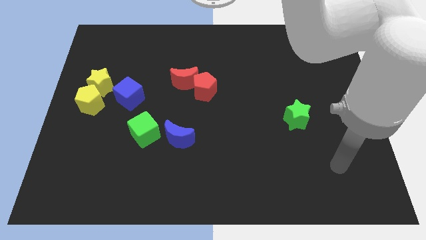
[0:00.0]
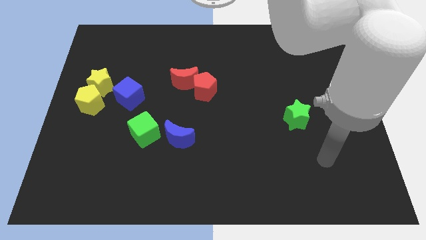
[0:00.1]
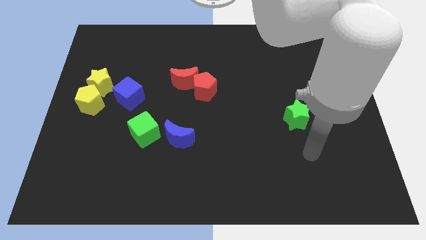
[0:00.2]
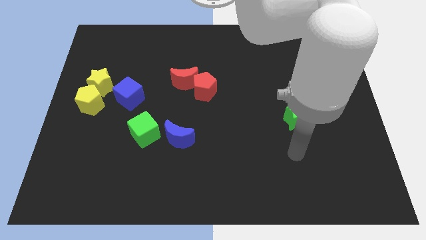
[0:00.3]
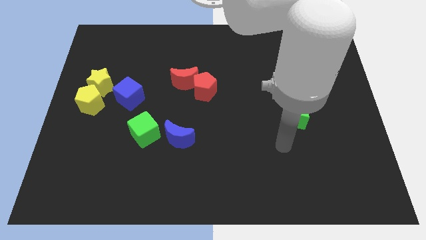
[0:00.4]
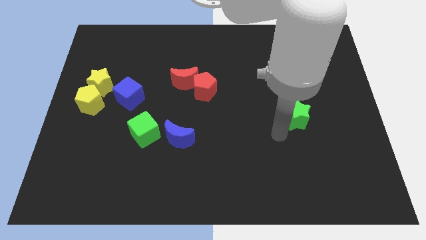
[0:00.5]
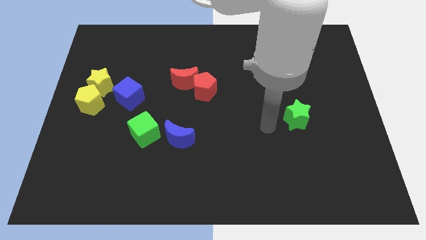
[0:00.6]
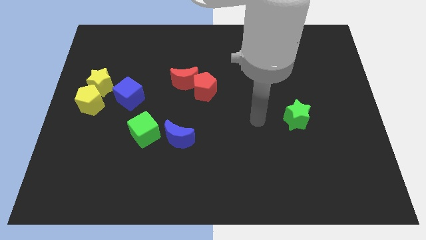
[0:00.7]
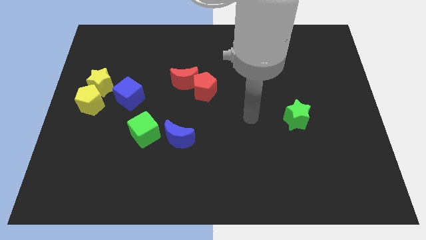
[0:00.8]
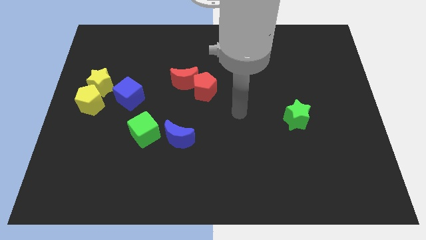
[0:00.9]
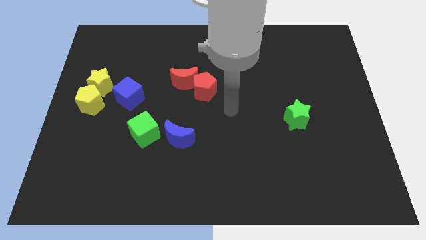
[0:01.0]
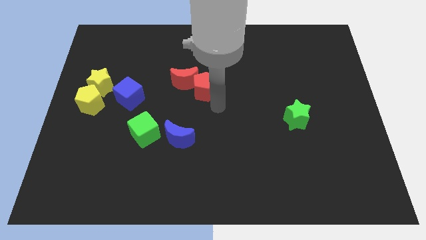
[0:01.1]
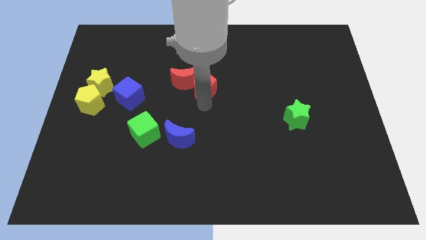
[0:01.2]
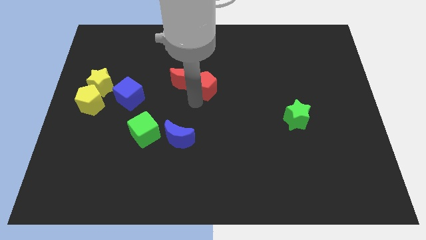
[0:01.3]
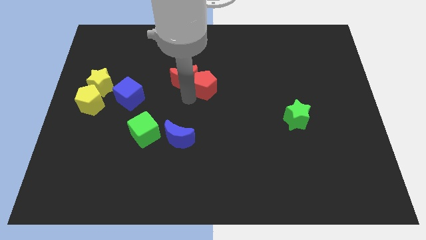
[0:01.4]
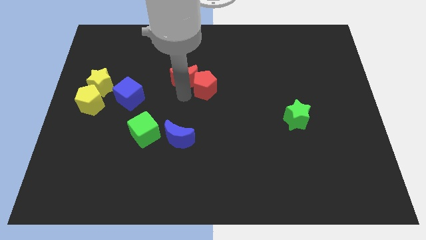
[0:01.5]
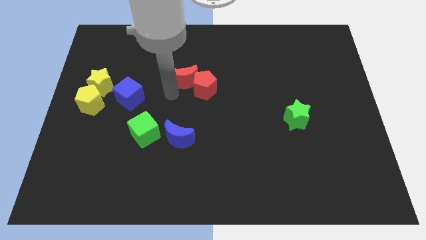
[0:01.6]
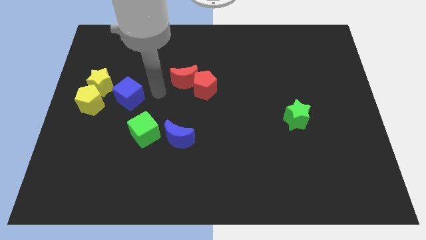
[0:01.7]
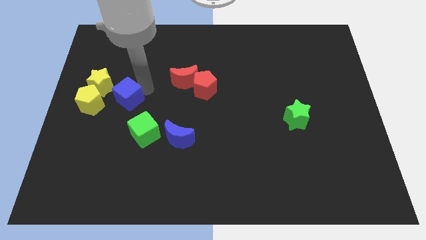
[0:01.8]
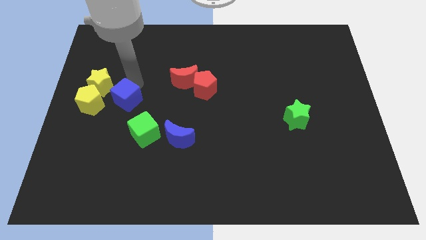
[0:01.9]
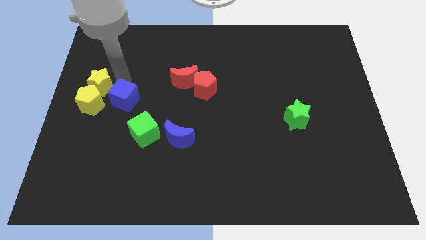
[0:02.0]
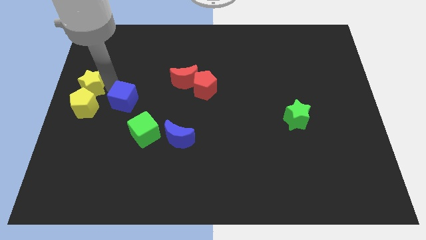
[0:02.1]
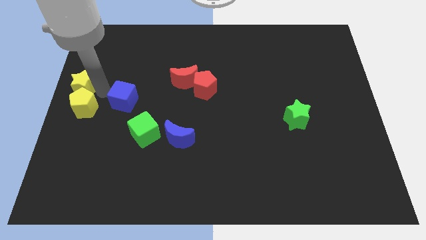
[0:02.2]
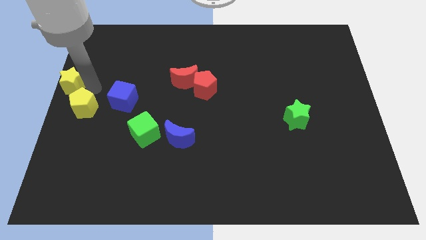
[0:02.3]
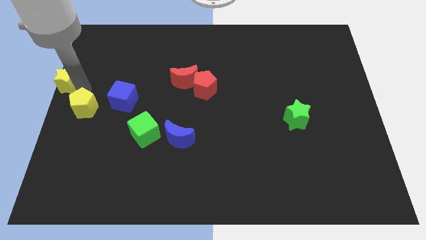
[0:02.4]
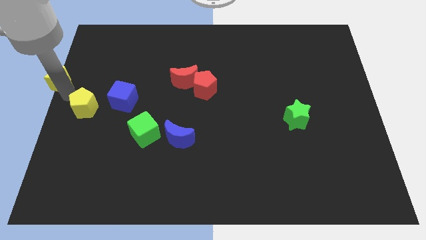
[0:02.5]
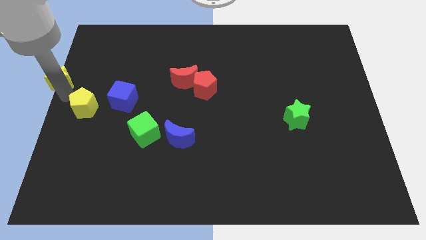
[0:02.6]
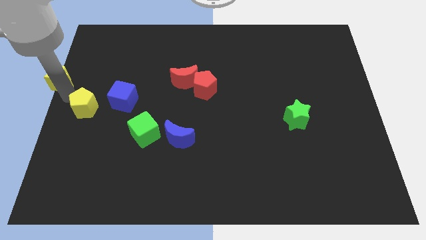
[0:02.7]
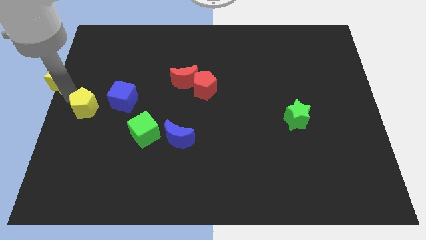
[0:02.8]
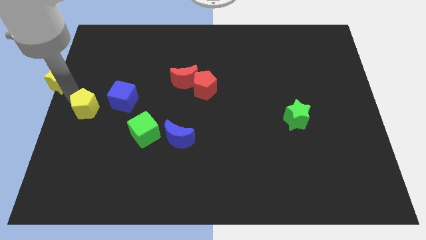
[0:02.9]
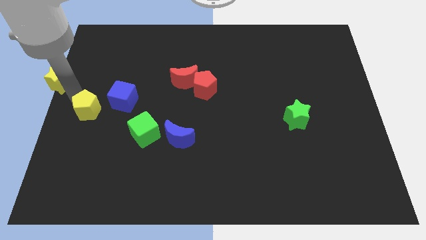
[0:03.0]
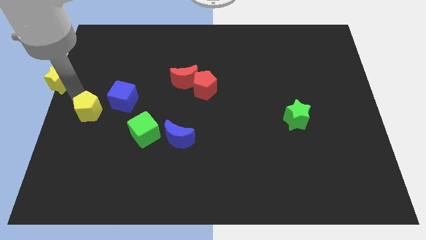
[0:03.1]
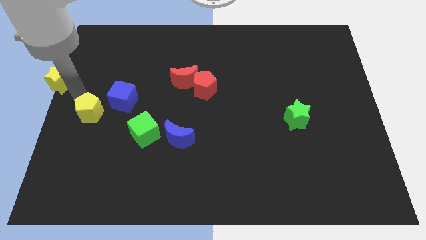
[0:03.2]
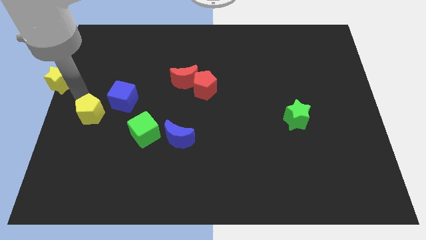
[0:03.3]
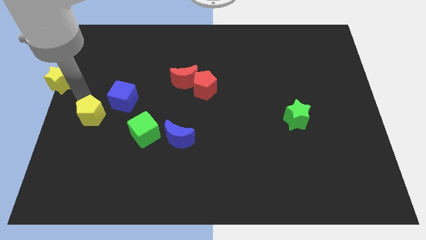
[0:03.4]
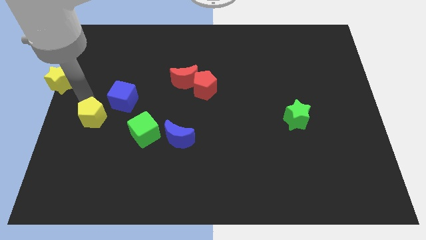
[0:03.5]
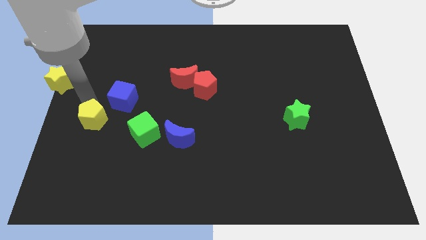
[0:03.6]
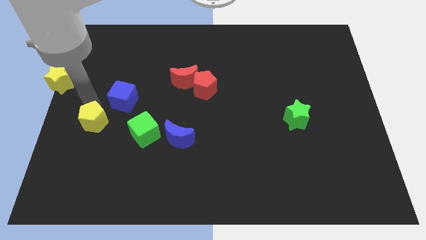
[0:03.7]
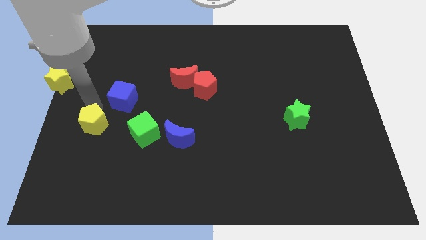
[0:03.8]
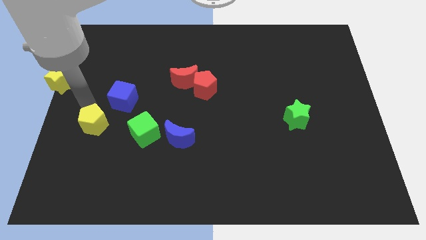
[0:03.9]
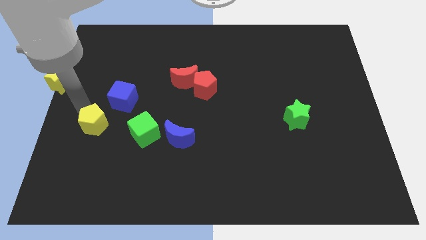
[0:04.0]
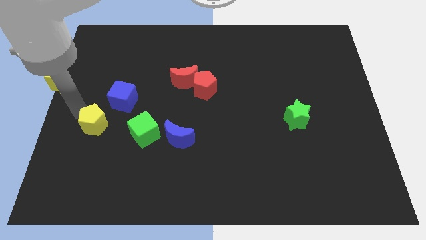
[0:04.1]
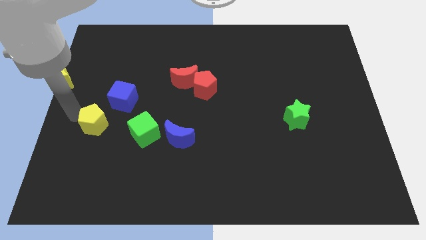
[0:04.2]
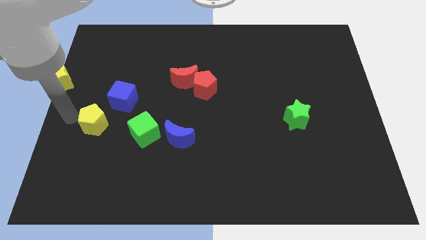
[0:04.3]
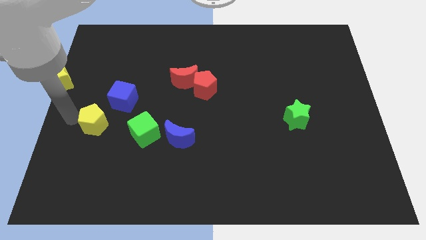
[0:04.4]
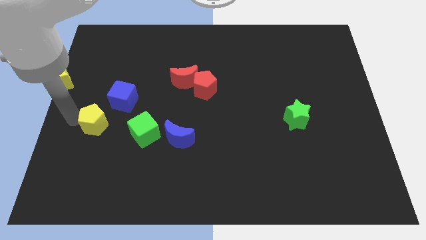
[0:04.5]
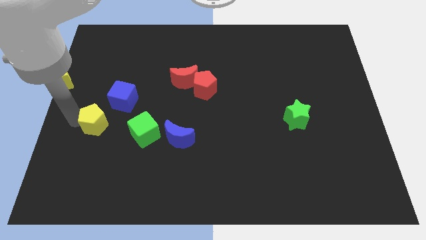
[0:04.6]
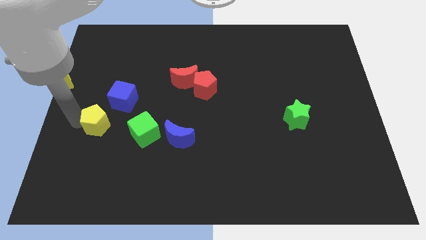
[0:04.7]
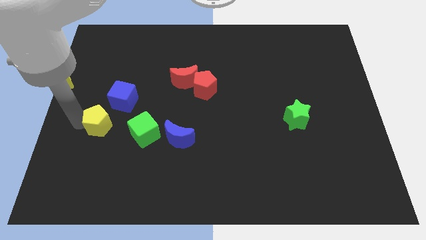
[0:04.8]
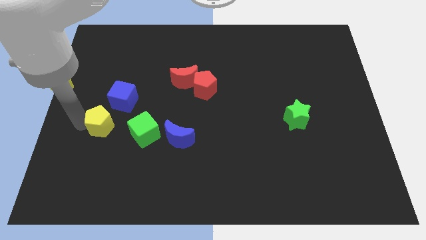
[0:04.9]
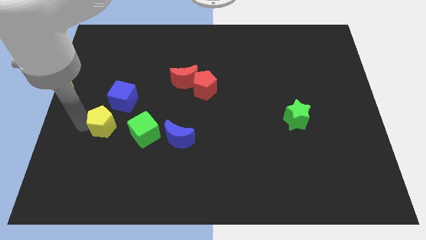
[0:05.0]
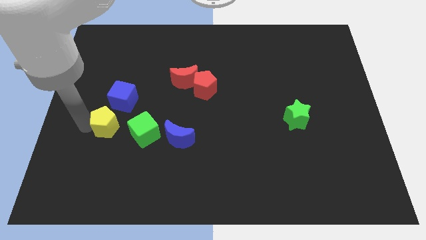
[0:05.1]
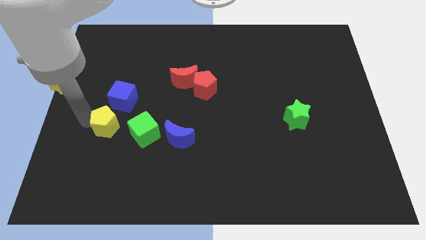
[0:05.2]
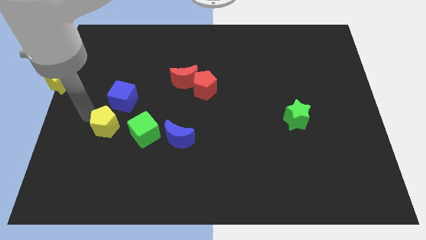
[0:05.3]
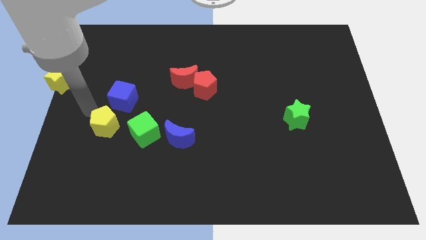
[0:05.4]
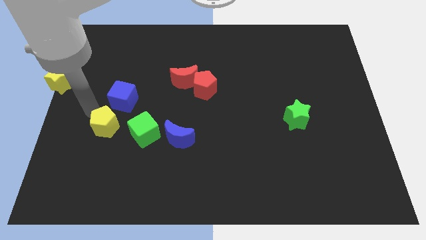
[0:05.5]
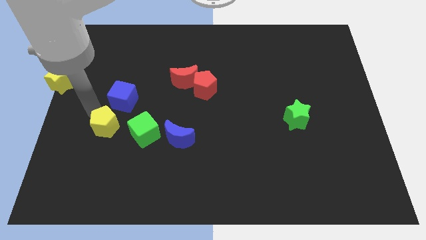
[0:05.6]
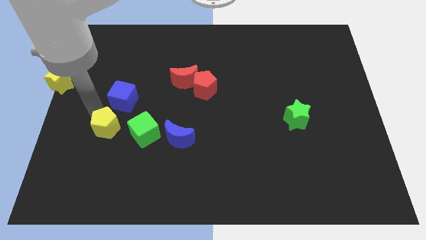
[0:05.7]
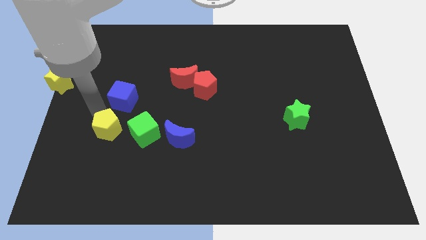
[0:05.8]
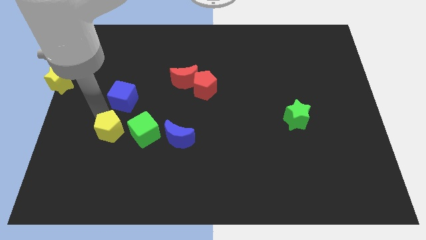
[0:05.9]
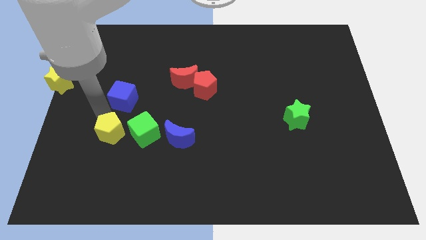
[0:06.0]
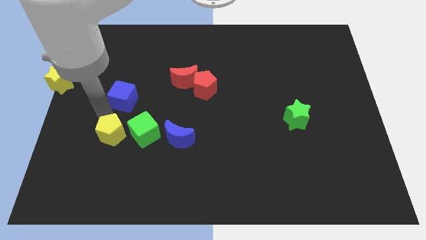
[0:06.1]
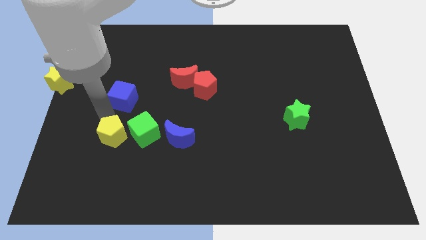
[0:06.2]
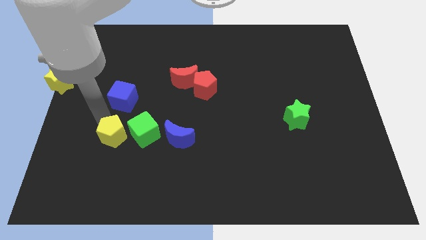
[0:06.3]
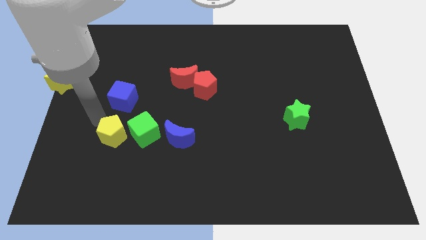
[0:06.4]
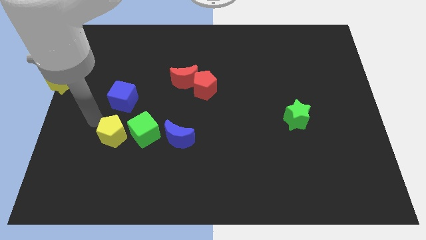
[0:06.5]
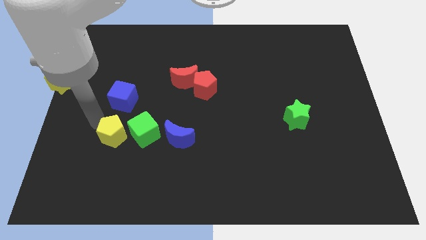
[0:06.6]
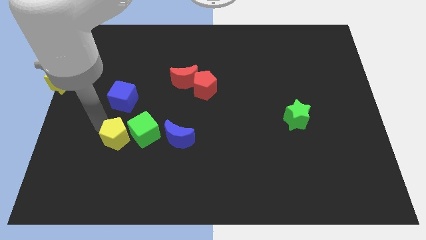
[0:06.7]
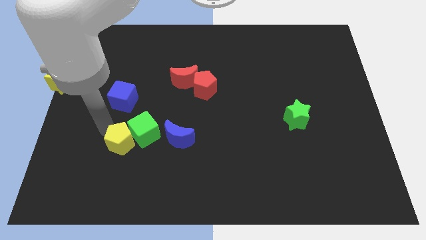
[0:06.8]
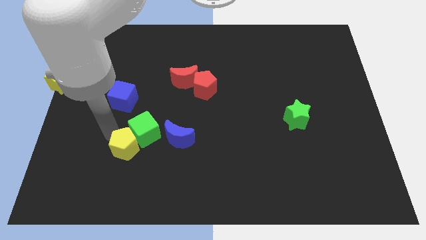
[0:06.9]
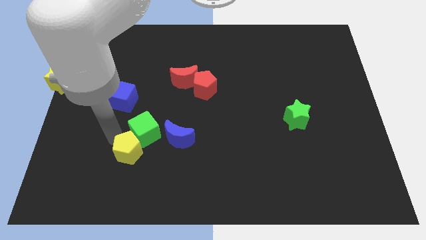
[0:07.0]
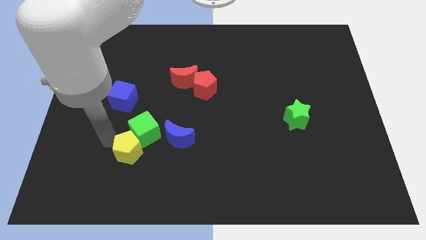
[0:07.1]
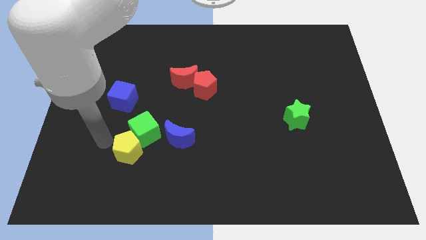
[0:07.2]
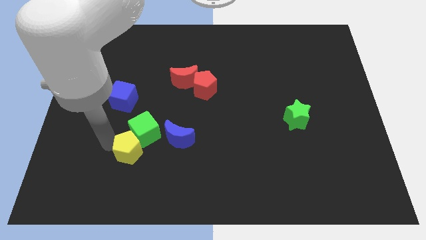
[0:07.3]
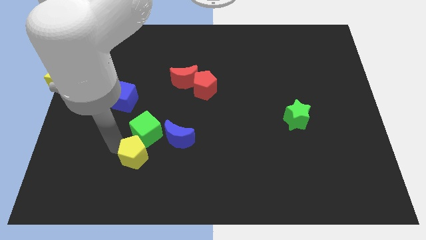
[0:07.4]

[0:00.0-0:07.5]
slide the yellow pentagon to the bottom left of the blue moon
